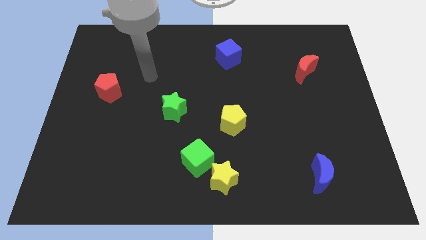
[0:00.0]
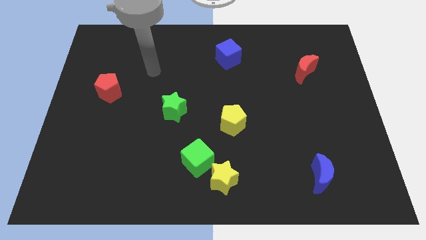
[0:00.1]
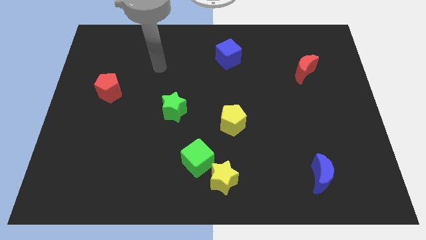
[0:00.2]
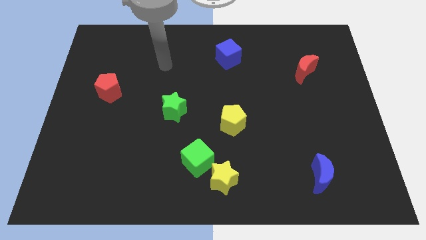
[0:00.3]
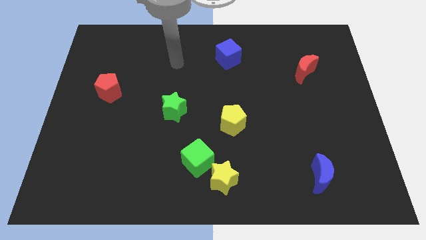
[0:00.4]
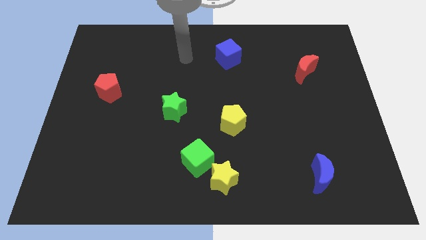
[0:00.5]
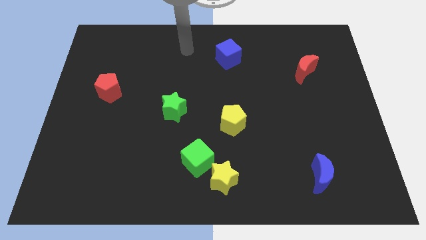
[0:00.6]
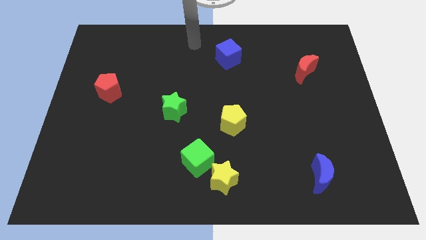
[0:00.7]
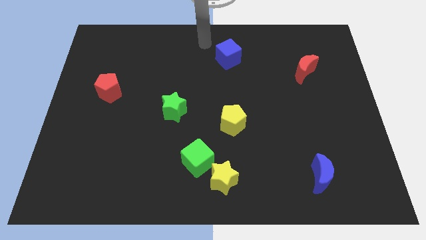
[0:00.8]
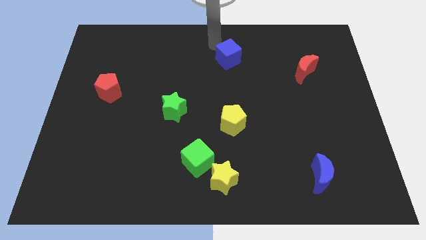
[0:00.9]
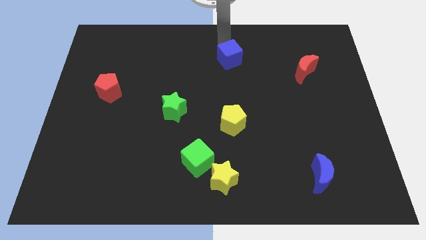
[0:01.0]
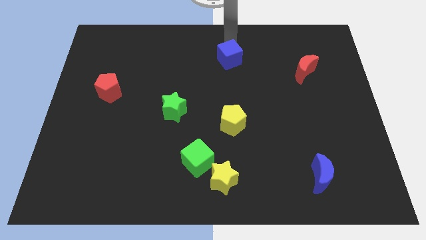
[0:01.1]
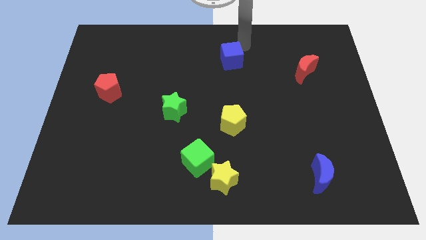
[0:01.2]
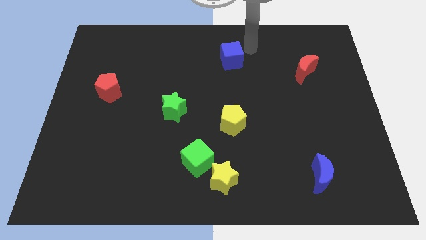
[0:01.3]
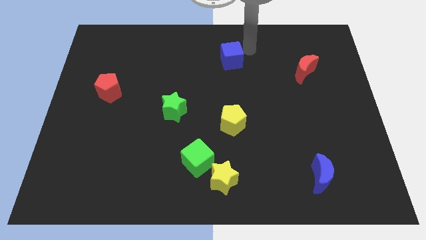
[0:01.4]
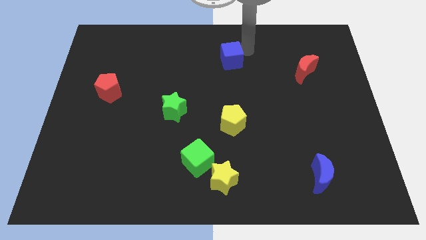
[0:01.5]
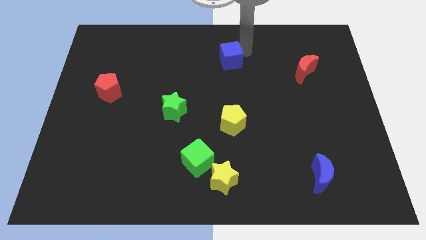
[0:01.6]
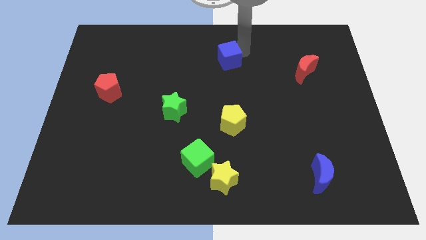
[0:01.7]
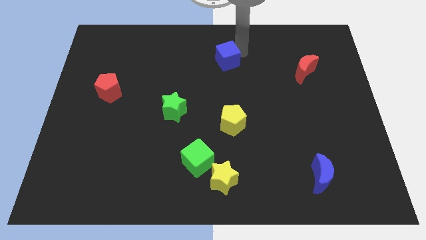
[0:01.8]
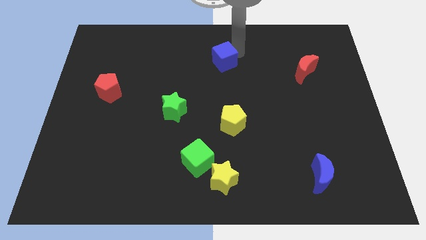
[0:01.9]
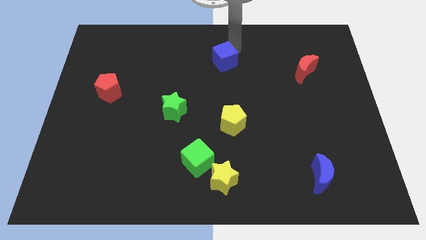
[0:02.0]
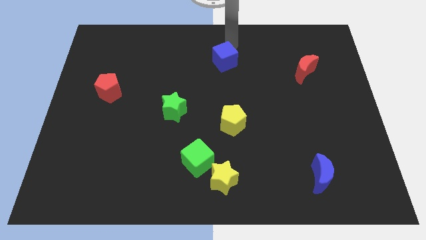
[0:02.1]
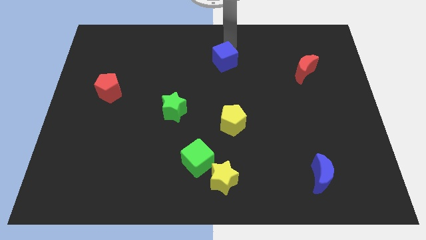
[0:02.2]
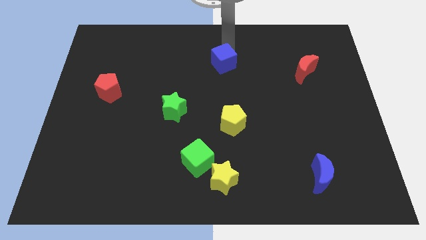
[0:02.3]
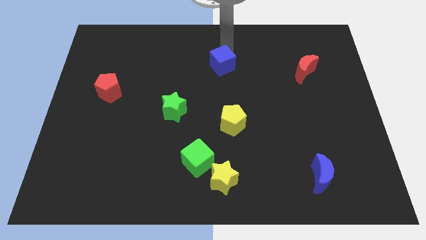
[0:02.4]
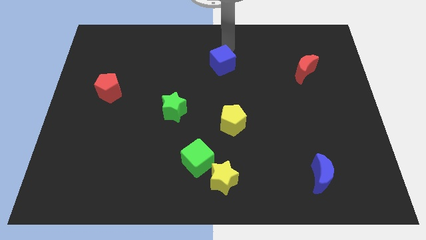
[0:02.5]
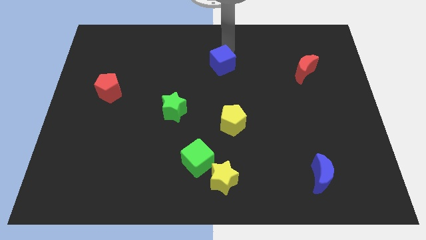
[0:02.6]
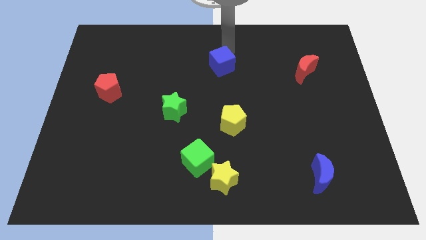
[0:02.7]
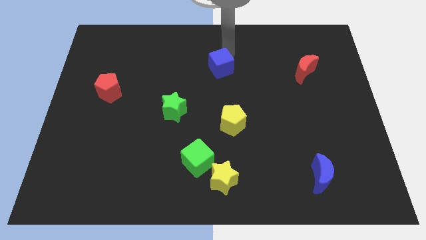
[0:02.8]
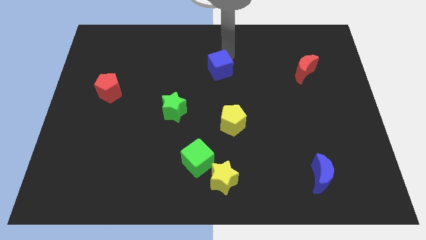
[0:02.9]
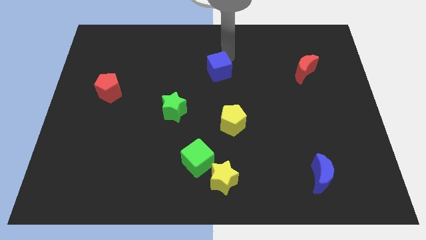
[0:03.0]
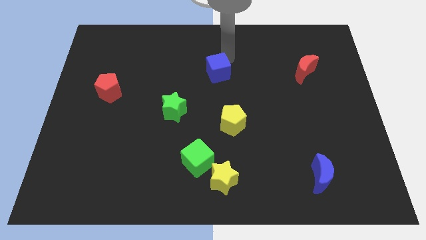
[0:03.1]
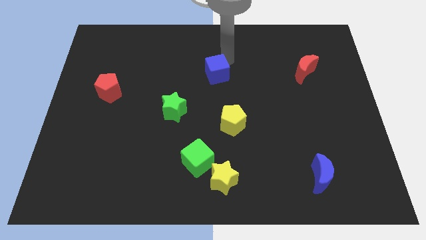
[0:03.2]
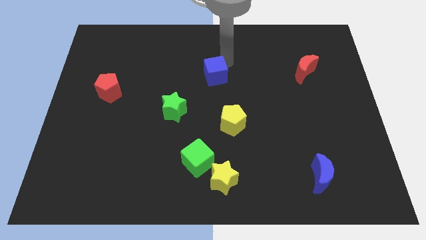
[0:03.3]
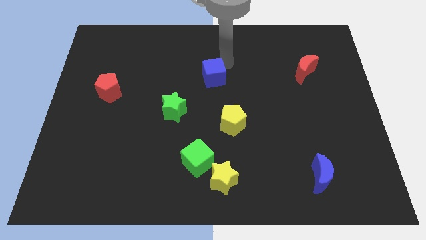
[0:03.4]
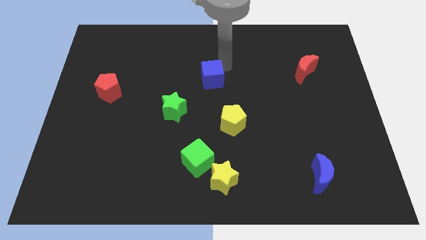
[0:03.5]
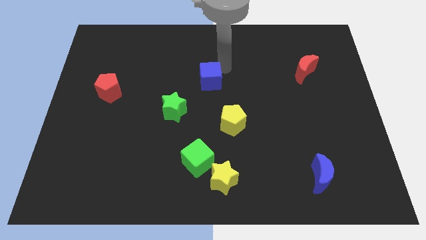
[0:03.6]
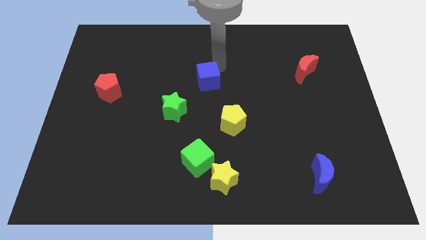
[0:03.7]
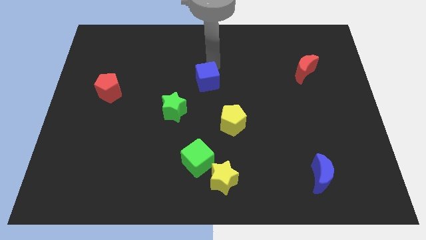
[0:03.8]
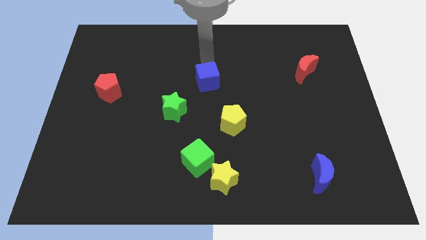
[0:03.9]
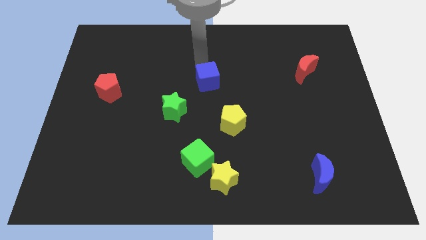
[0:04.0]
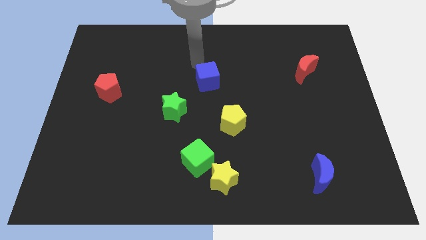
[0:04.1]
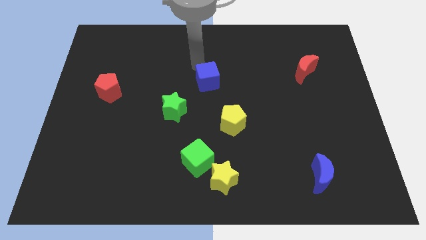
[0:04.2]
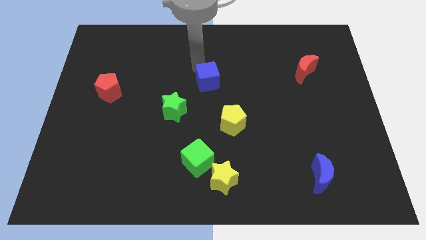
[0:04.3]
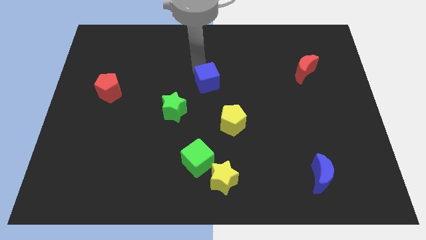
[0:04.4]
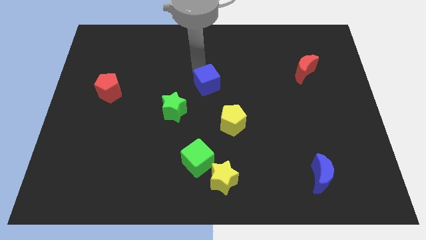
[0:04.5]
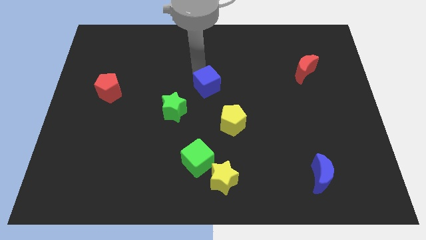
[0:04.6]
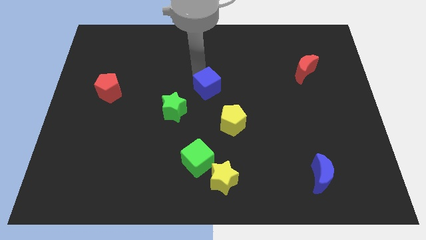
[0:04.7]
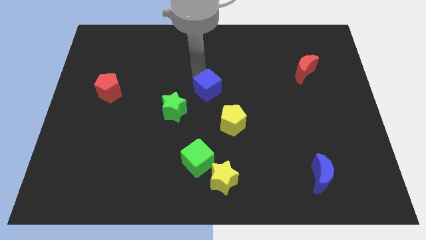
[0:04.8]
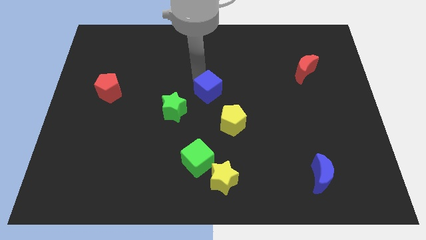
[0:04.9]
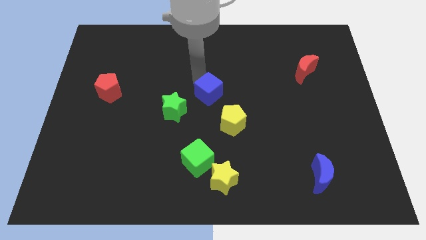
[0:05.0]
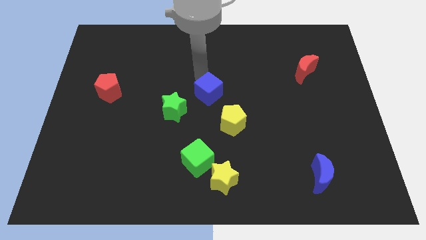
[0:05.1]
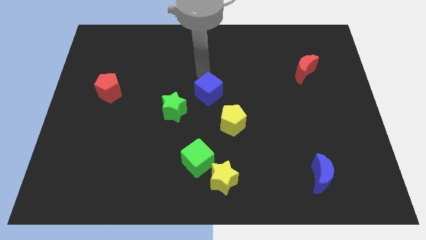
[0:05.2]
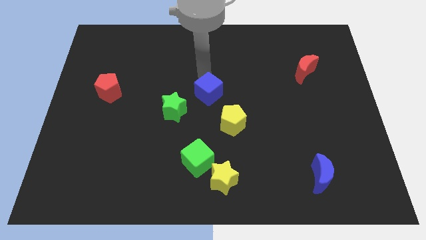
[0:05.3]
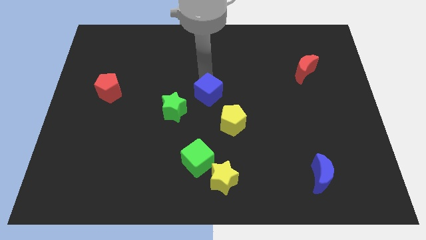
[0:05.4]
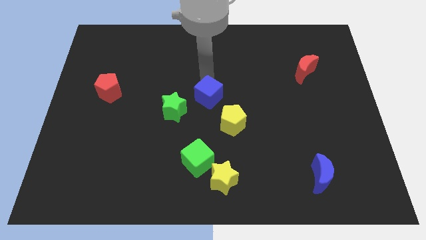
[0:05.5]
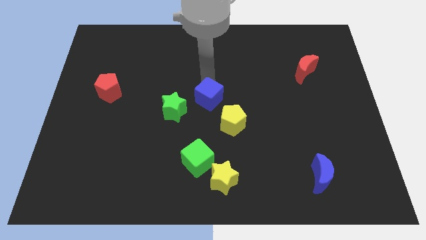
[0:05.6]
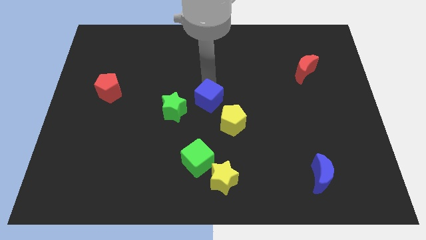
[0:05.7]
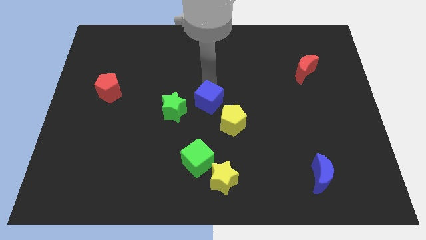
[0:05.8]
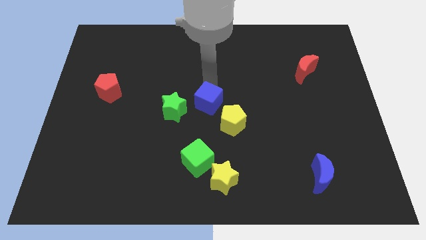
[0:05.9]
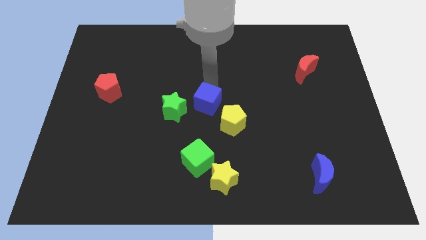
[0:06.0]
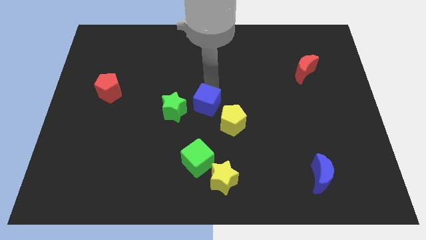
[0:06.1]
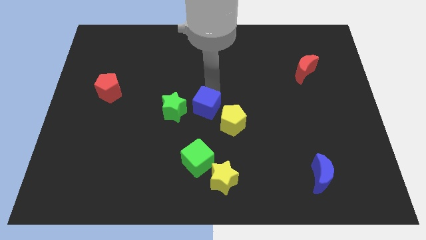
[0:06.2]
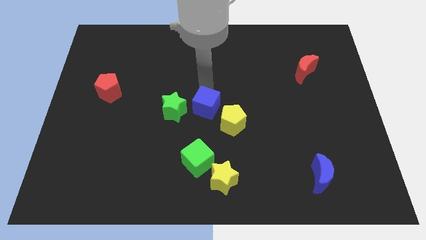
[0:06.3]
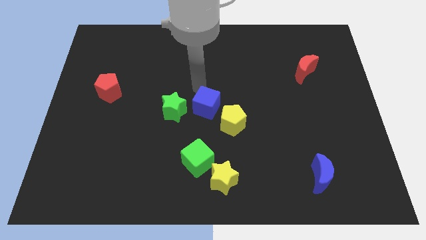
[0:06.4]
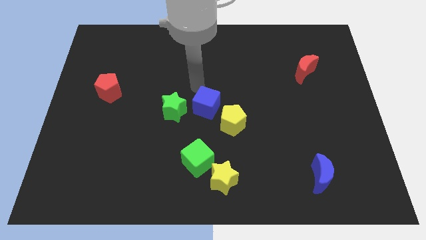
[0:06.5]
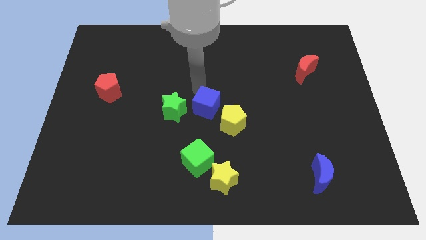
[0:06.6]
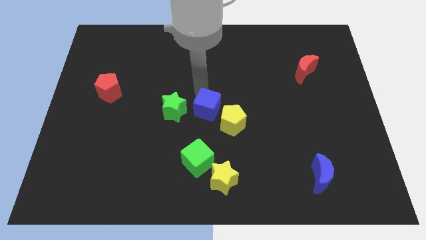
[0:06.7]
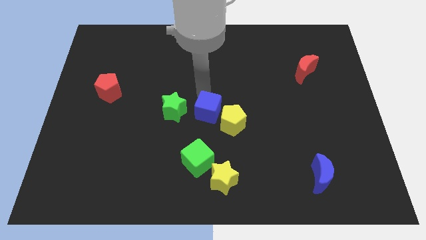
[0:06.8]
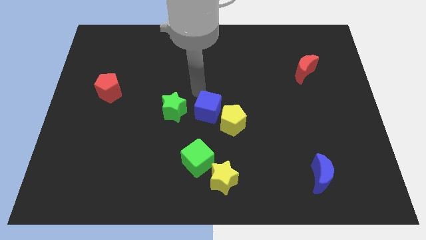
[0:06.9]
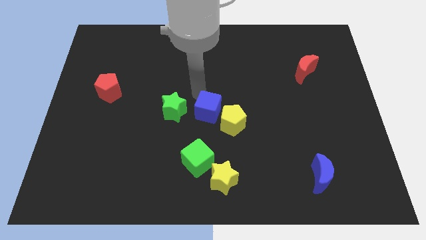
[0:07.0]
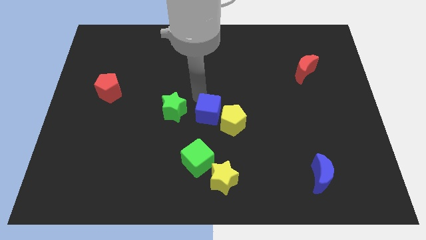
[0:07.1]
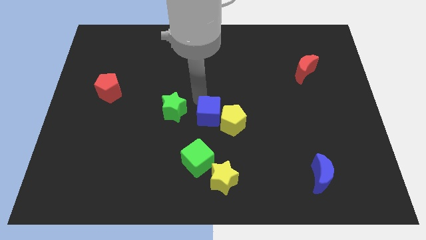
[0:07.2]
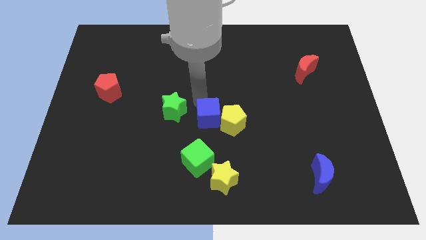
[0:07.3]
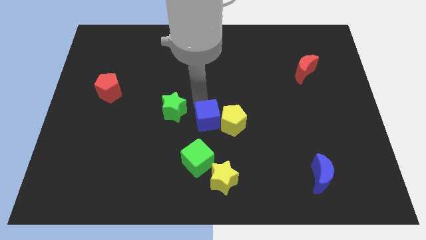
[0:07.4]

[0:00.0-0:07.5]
move the blue cube to the top of the yellow star
